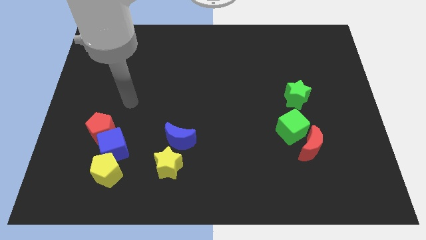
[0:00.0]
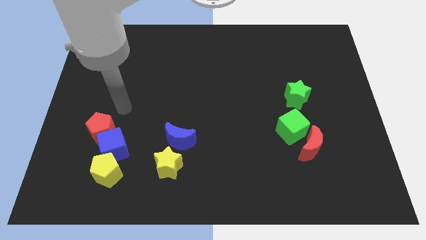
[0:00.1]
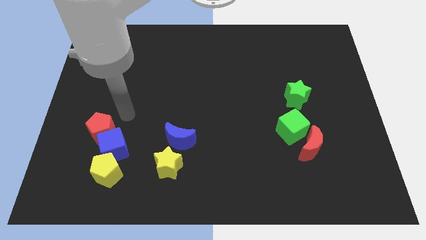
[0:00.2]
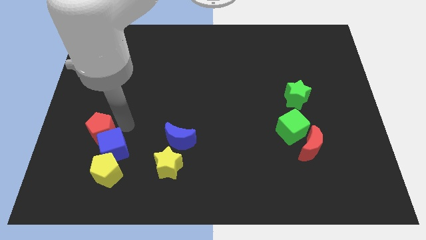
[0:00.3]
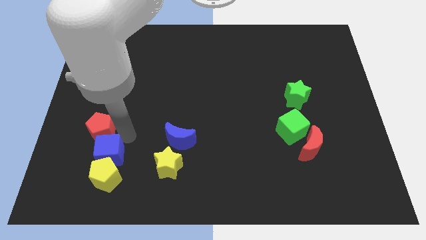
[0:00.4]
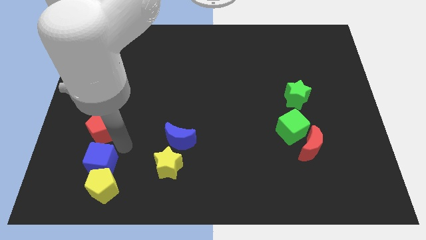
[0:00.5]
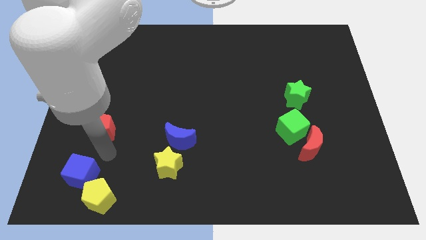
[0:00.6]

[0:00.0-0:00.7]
pull the red pentagon apart from the blue cube

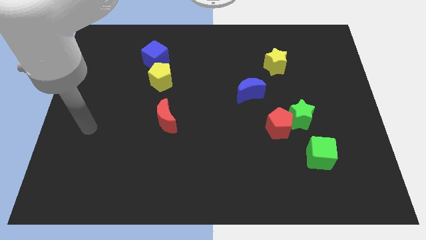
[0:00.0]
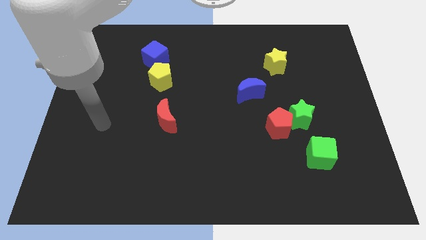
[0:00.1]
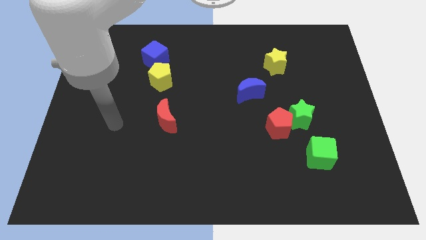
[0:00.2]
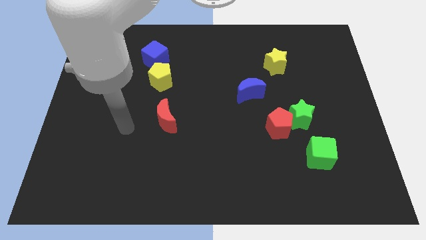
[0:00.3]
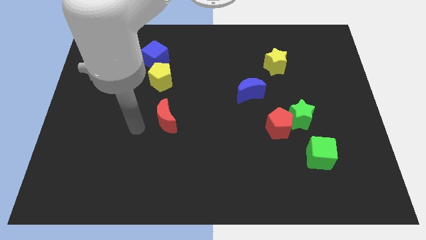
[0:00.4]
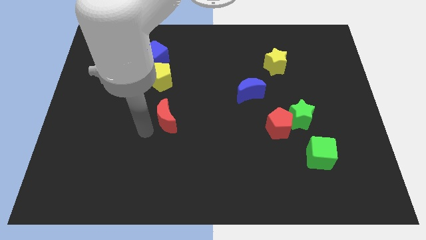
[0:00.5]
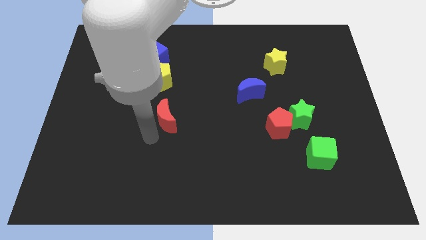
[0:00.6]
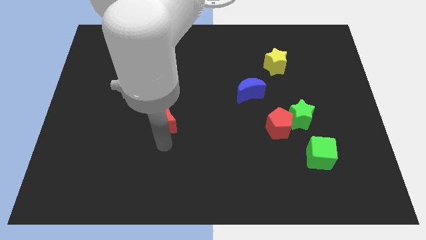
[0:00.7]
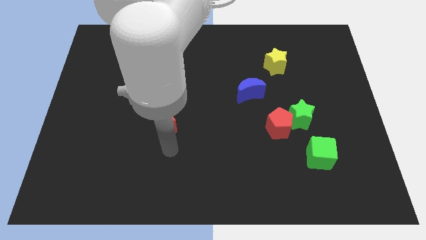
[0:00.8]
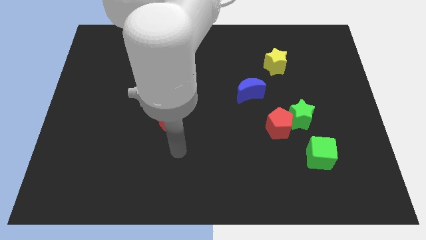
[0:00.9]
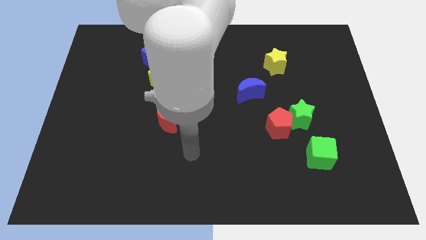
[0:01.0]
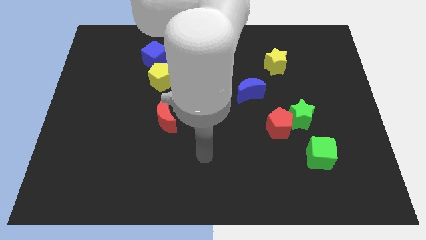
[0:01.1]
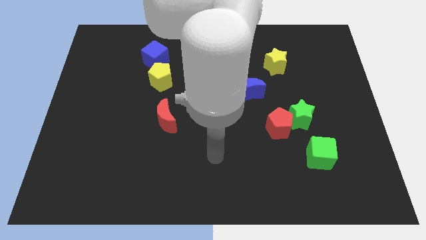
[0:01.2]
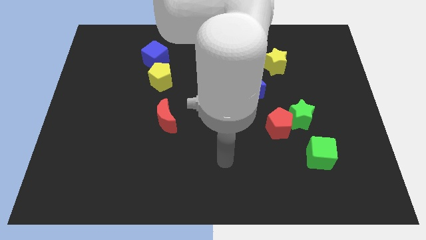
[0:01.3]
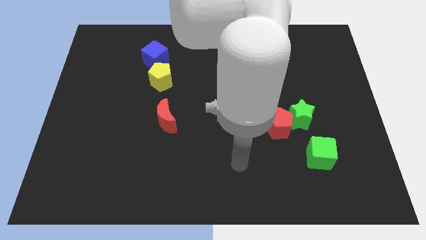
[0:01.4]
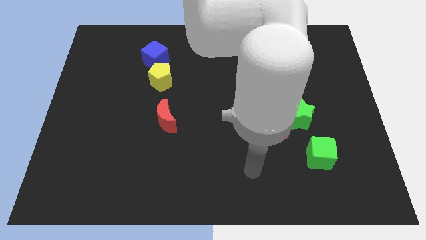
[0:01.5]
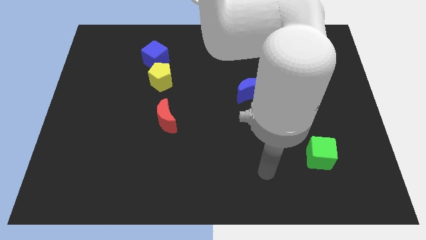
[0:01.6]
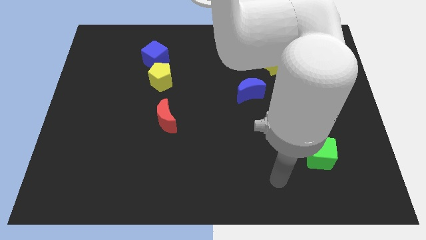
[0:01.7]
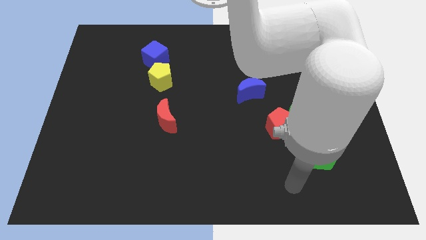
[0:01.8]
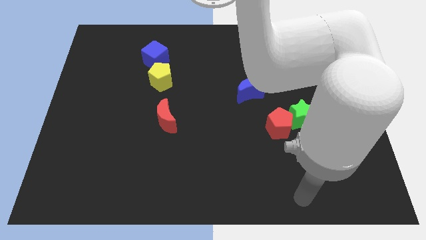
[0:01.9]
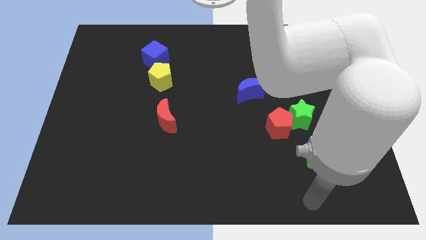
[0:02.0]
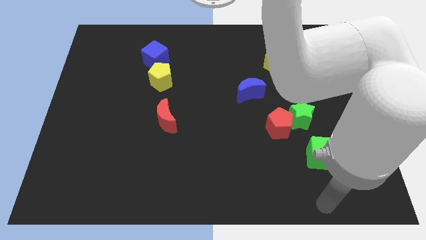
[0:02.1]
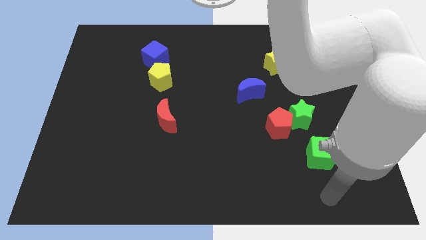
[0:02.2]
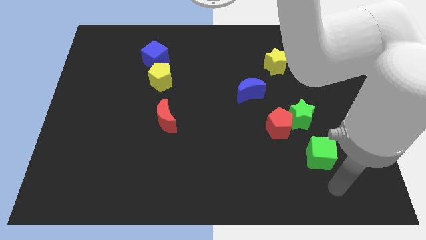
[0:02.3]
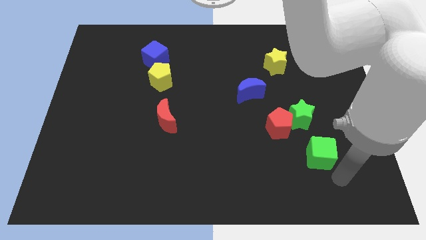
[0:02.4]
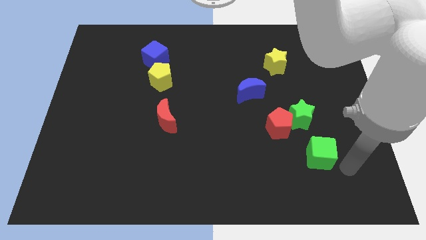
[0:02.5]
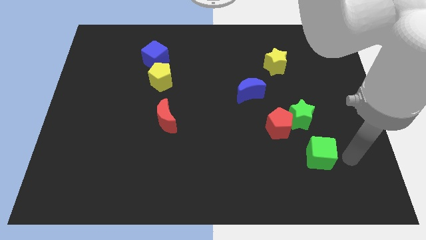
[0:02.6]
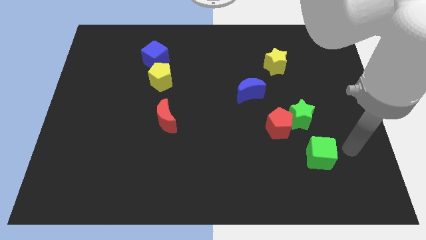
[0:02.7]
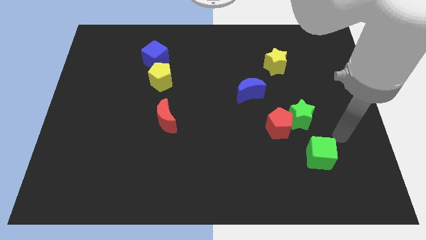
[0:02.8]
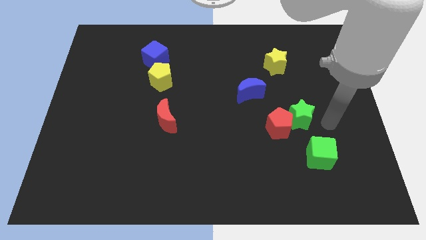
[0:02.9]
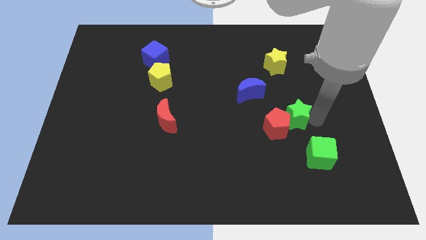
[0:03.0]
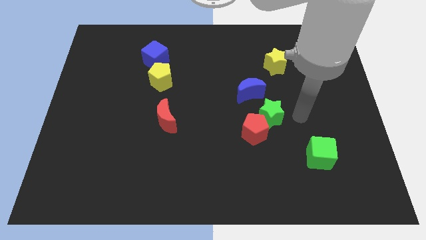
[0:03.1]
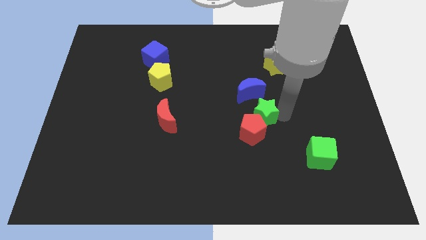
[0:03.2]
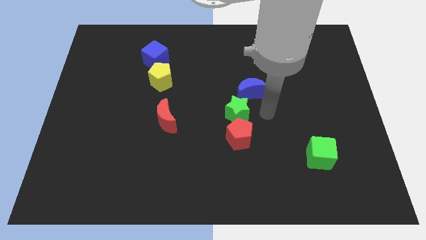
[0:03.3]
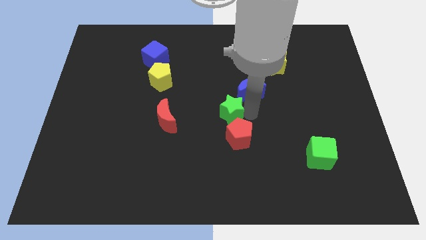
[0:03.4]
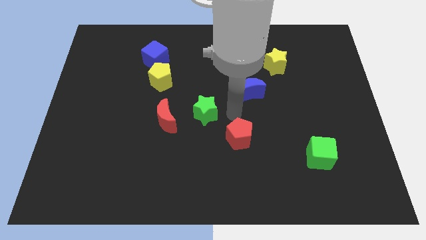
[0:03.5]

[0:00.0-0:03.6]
separate the red pentagon from the green star

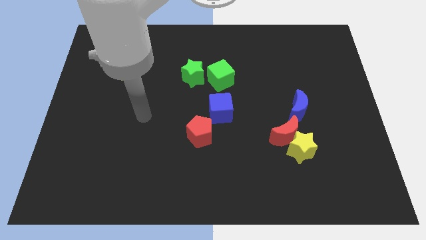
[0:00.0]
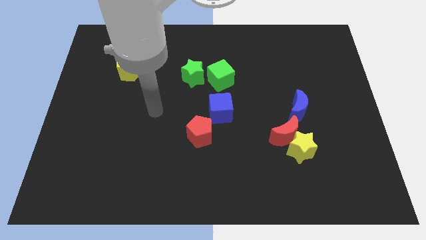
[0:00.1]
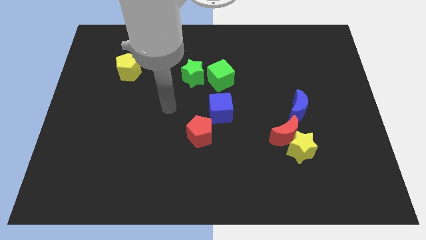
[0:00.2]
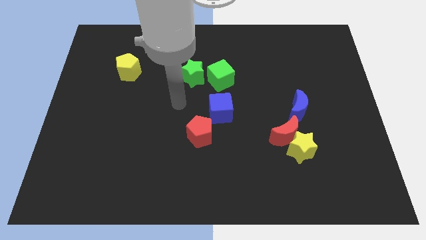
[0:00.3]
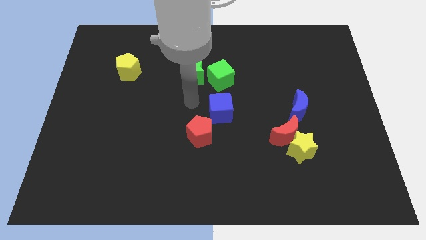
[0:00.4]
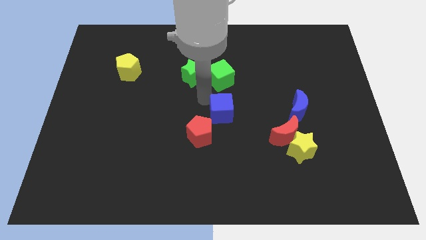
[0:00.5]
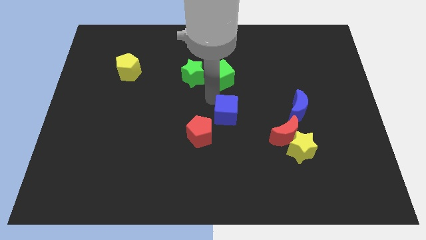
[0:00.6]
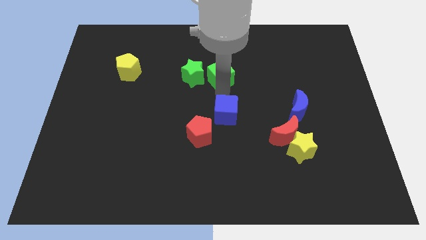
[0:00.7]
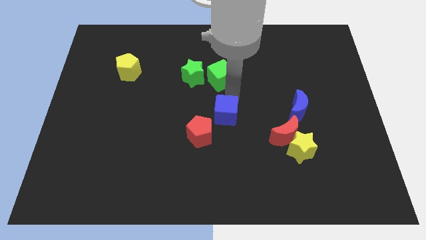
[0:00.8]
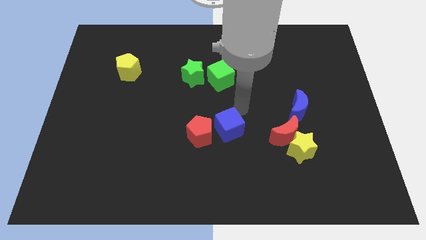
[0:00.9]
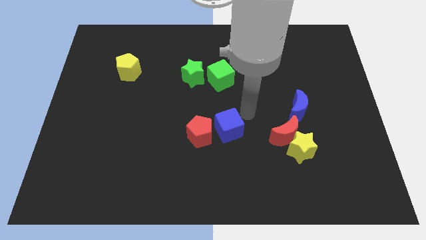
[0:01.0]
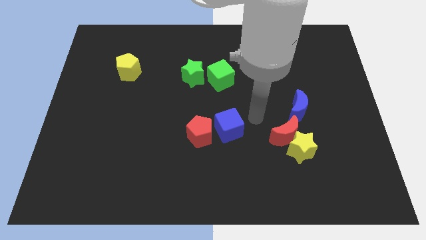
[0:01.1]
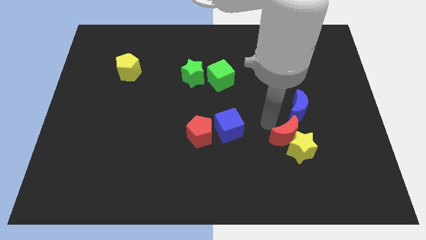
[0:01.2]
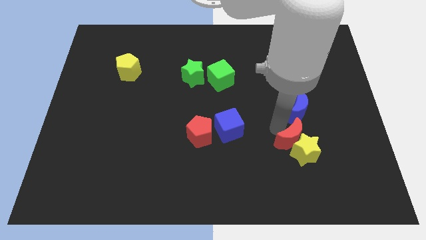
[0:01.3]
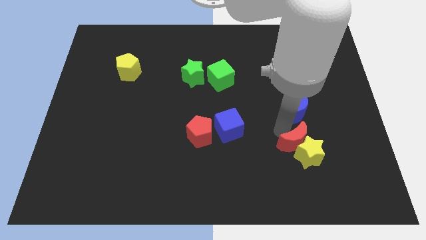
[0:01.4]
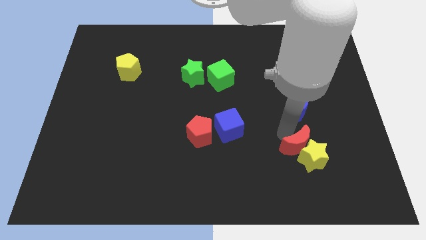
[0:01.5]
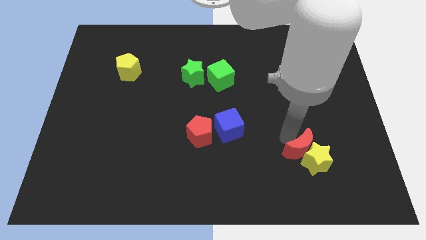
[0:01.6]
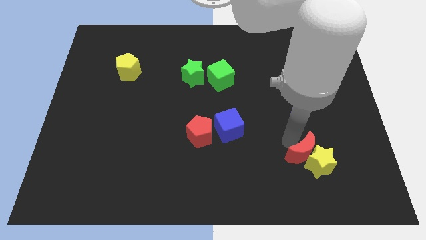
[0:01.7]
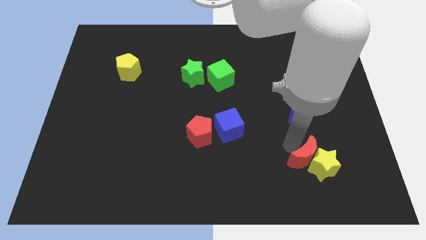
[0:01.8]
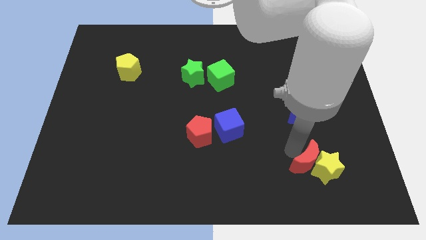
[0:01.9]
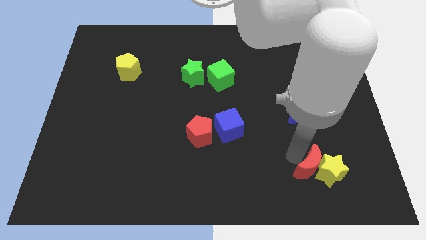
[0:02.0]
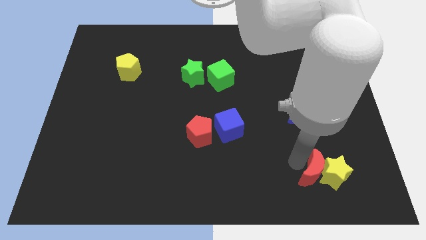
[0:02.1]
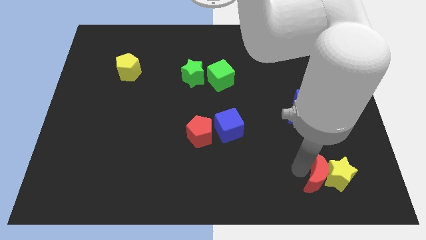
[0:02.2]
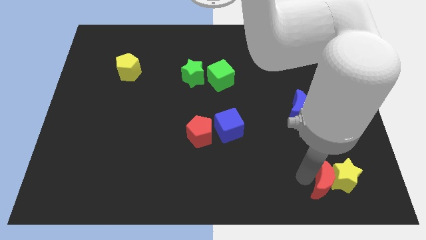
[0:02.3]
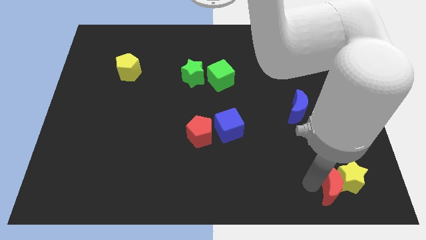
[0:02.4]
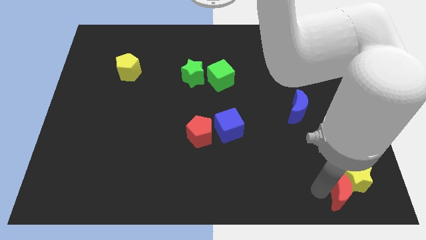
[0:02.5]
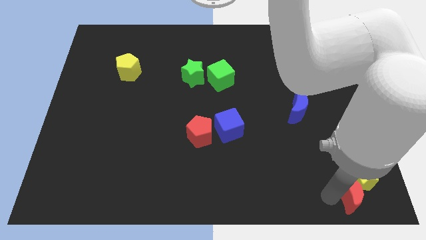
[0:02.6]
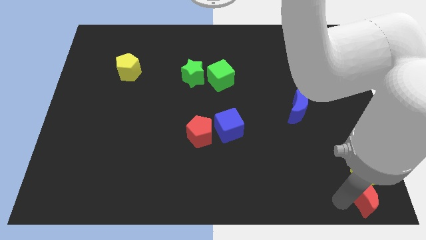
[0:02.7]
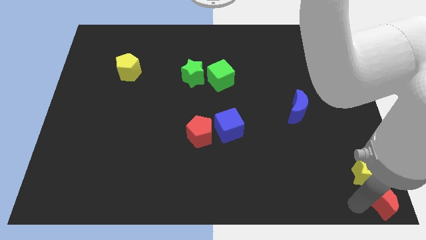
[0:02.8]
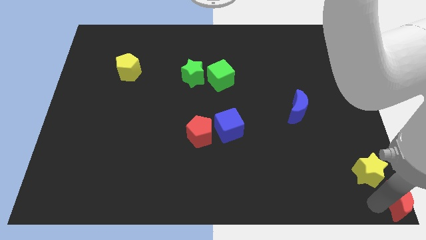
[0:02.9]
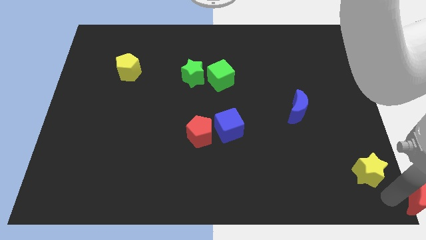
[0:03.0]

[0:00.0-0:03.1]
separate the yellow star from the red moon

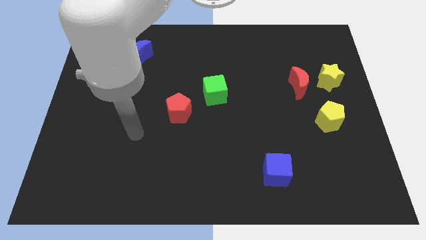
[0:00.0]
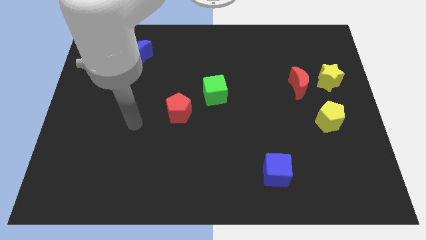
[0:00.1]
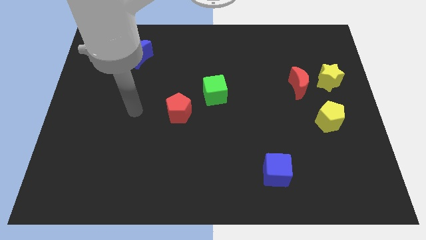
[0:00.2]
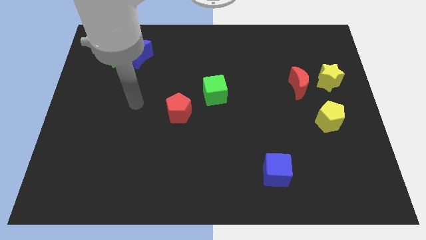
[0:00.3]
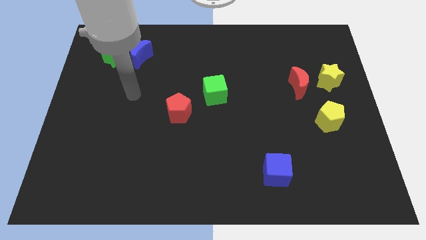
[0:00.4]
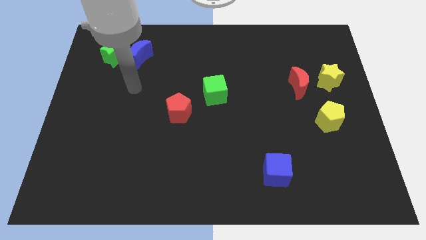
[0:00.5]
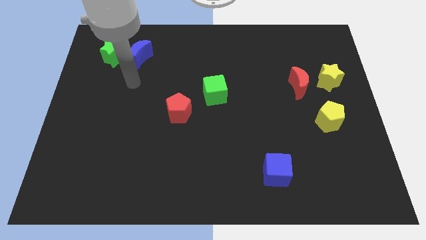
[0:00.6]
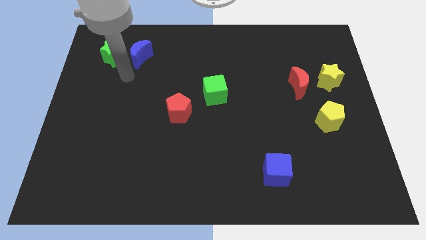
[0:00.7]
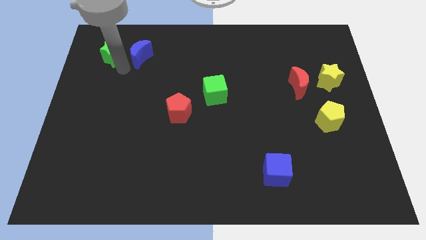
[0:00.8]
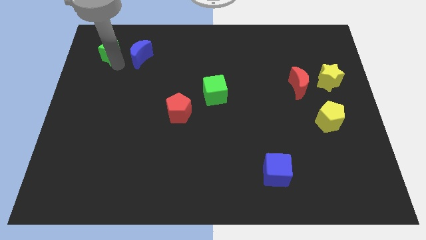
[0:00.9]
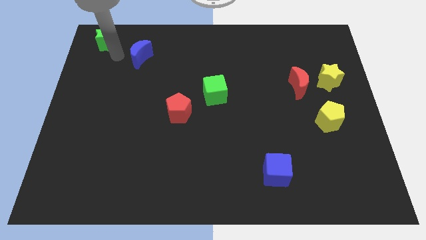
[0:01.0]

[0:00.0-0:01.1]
move the blue moon away from the green star

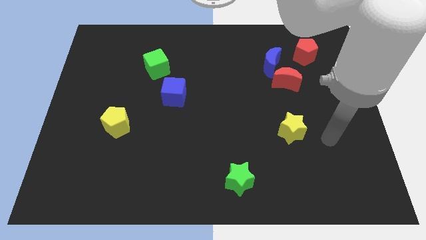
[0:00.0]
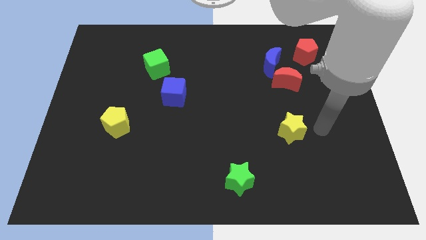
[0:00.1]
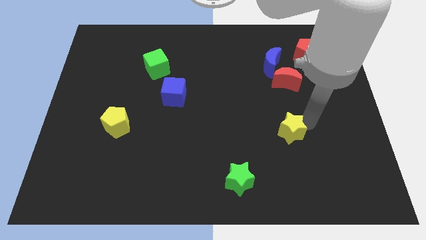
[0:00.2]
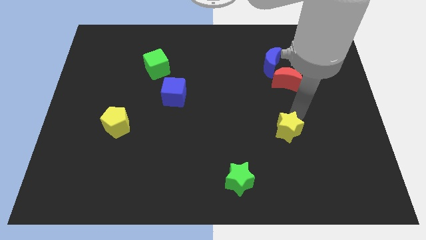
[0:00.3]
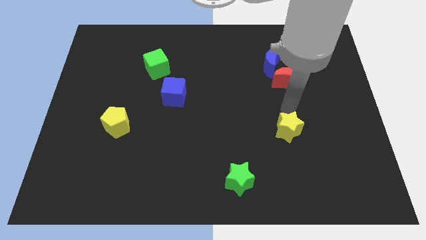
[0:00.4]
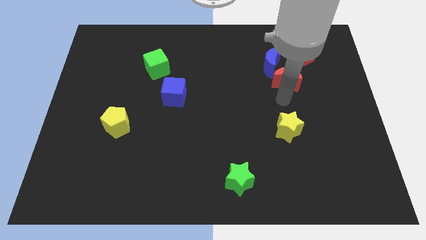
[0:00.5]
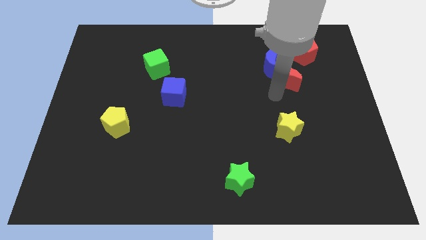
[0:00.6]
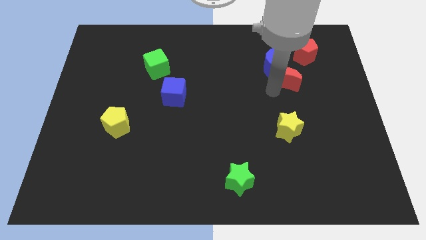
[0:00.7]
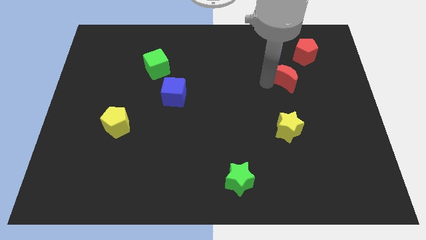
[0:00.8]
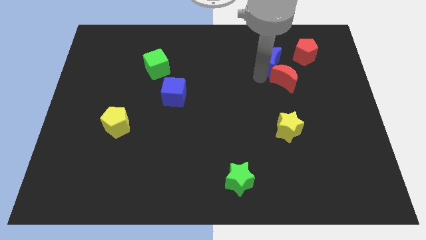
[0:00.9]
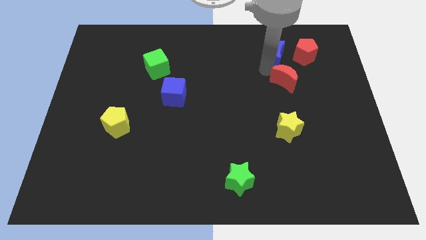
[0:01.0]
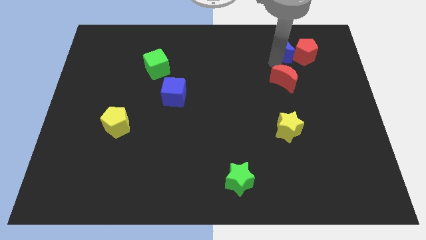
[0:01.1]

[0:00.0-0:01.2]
separate the red moon from the blue moon
